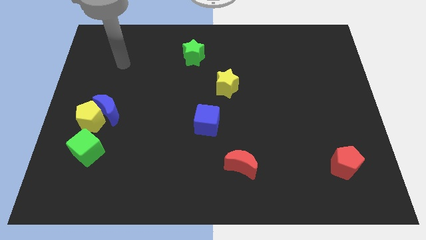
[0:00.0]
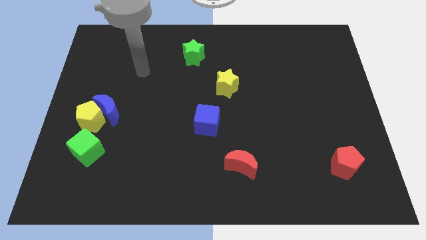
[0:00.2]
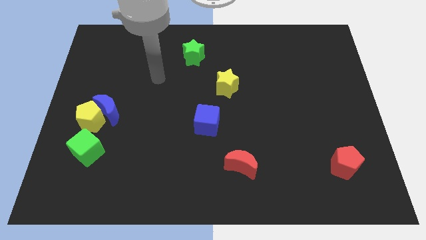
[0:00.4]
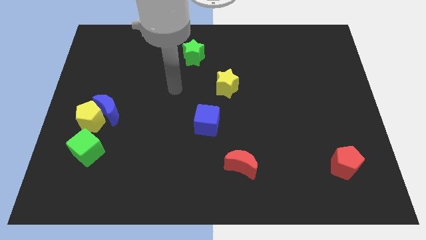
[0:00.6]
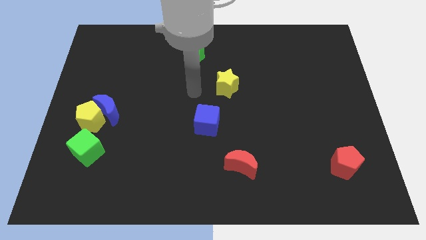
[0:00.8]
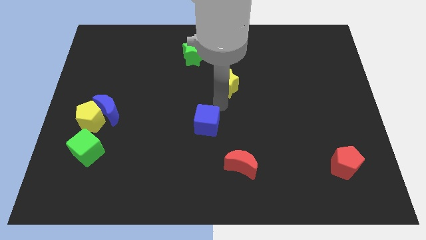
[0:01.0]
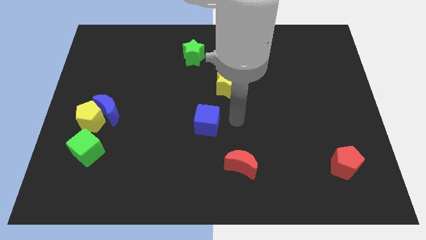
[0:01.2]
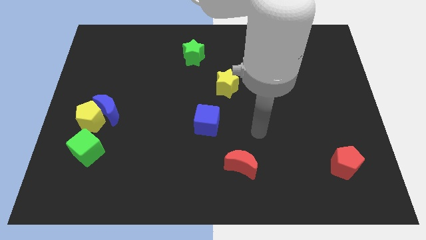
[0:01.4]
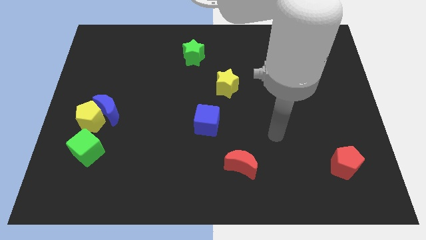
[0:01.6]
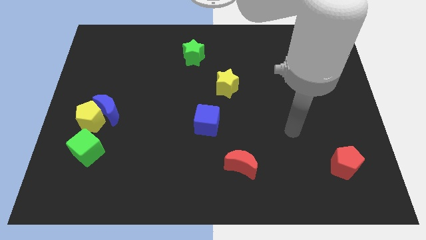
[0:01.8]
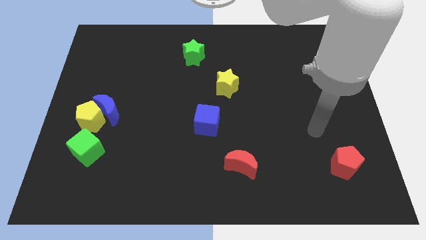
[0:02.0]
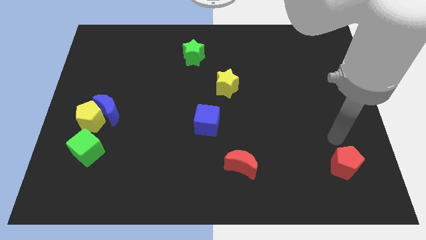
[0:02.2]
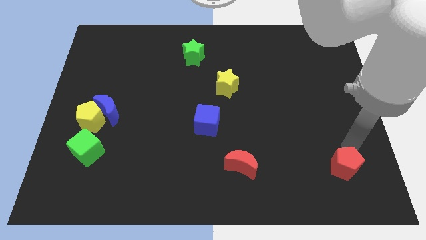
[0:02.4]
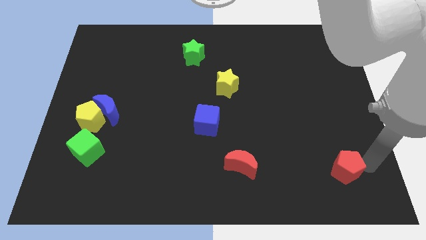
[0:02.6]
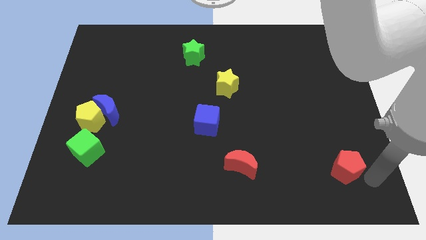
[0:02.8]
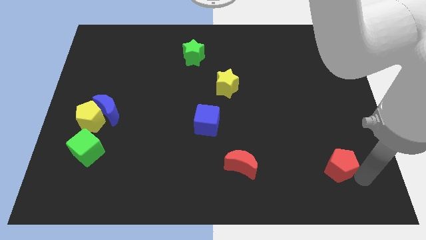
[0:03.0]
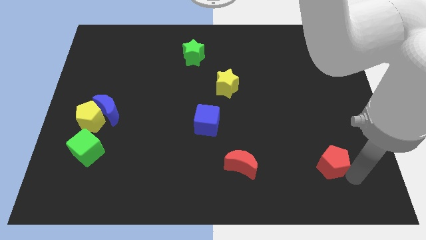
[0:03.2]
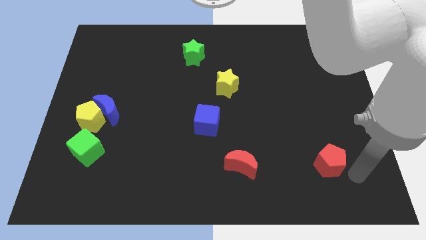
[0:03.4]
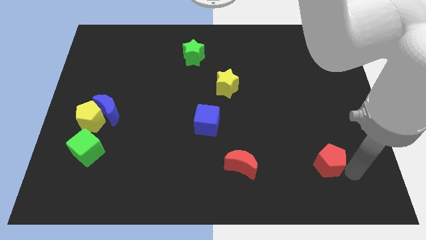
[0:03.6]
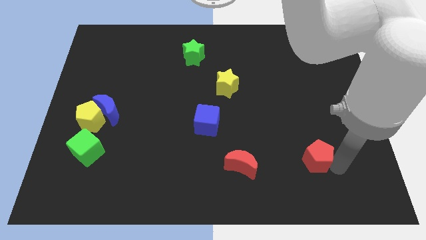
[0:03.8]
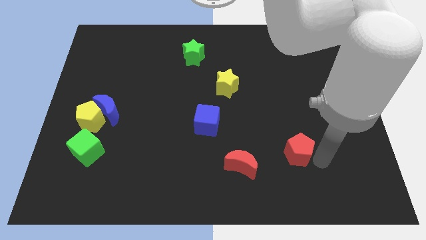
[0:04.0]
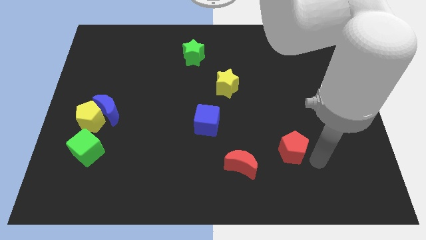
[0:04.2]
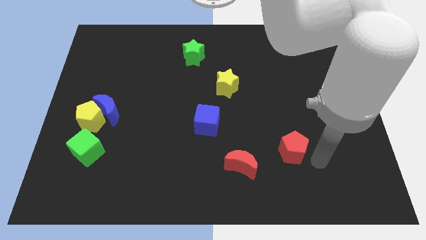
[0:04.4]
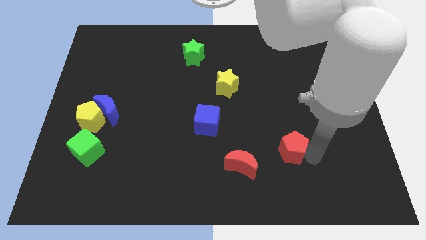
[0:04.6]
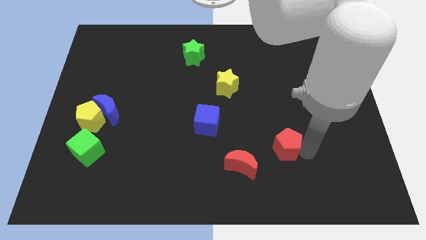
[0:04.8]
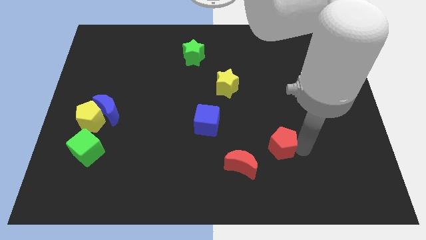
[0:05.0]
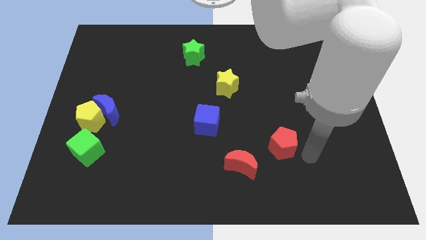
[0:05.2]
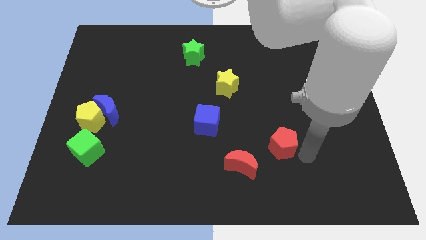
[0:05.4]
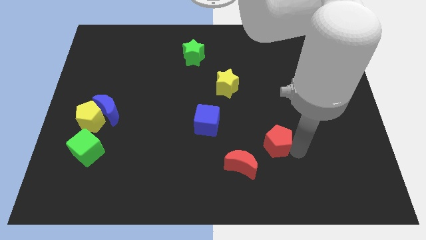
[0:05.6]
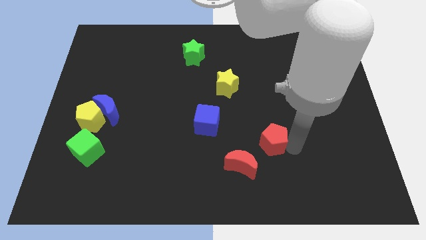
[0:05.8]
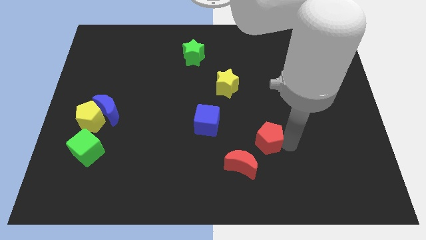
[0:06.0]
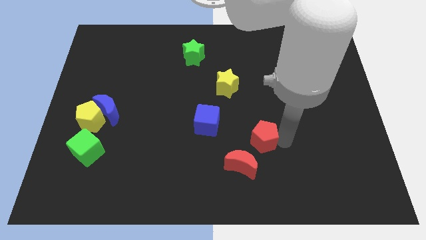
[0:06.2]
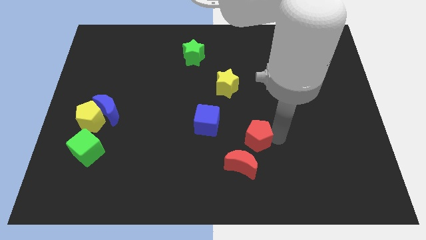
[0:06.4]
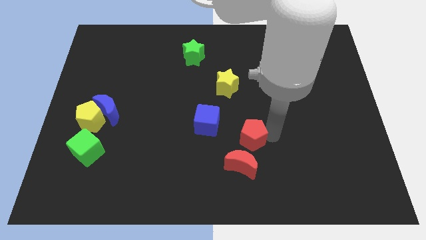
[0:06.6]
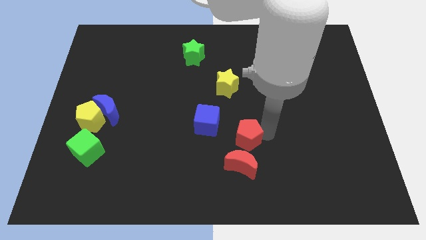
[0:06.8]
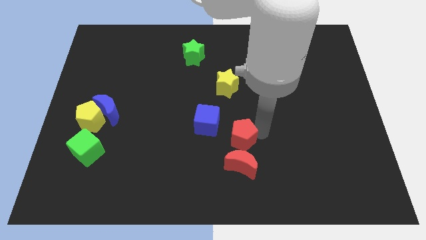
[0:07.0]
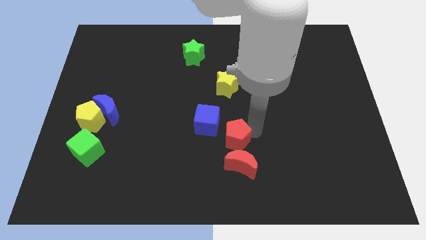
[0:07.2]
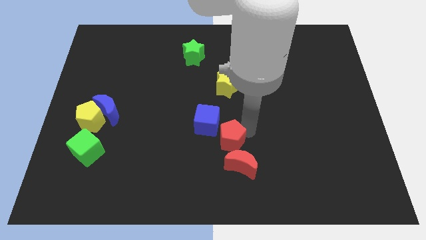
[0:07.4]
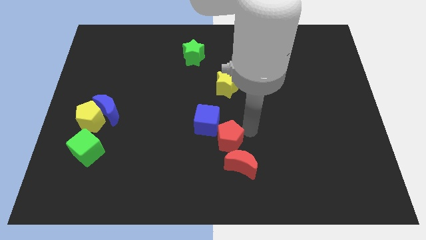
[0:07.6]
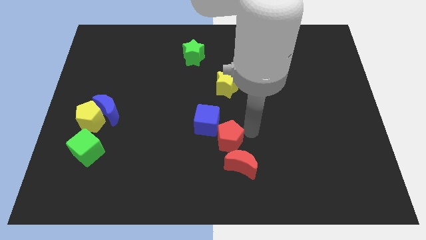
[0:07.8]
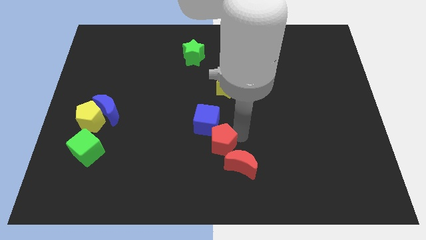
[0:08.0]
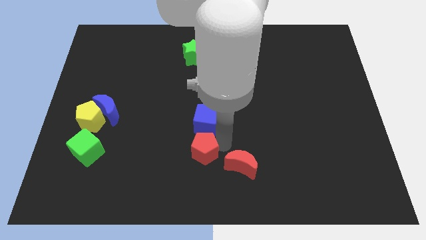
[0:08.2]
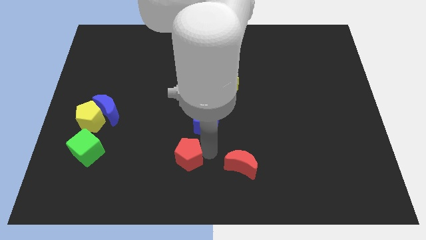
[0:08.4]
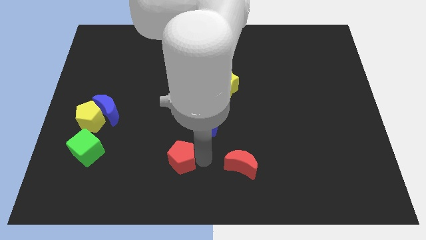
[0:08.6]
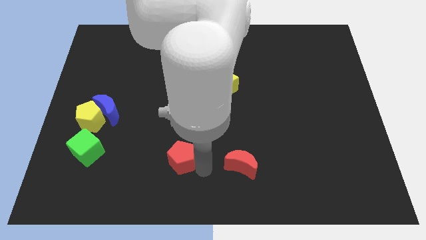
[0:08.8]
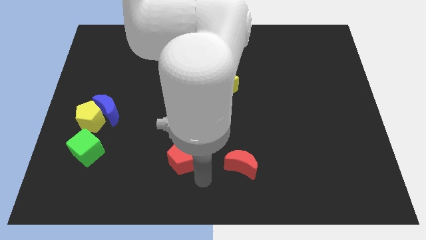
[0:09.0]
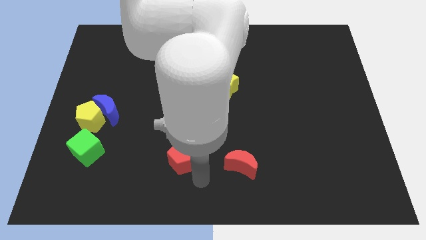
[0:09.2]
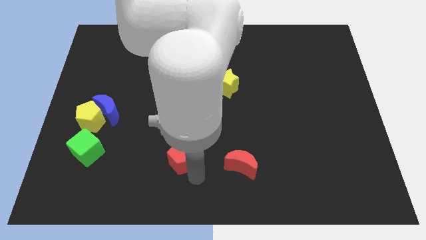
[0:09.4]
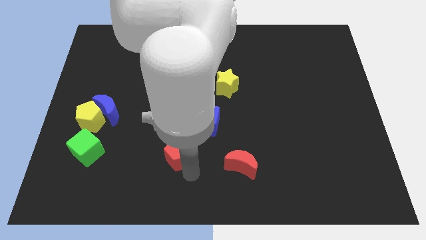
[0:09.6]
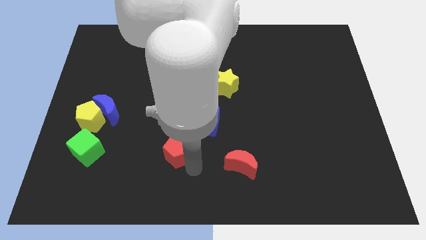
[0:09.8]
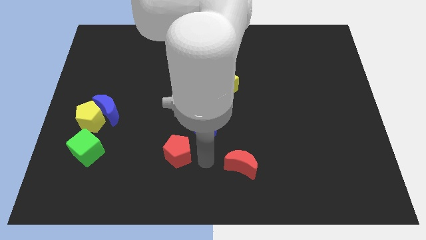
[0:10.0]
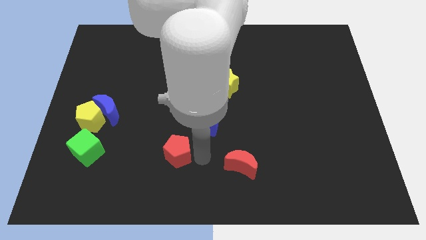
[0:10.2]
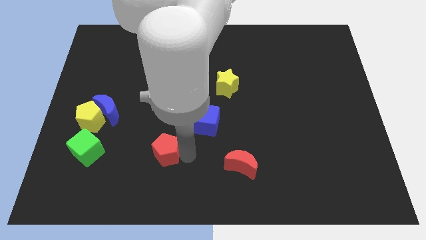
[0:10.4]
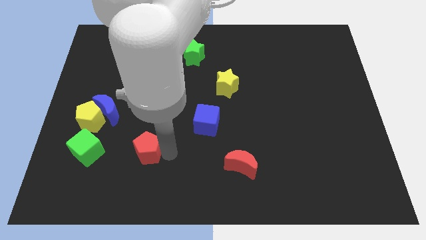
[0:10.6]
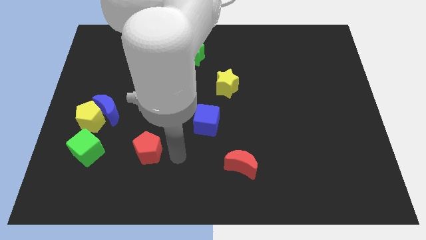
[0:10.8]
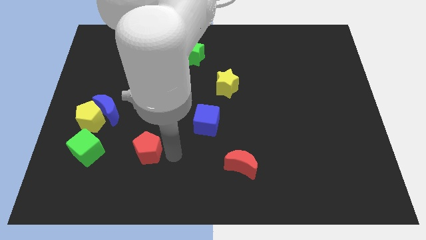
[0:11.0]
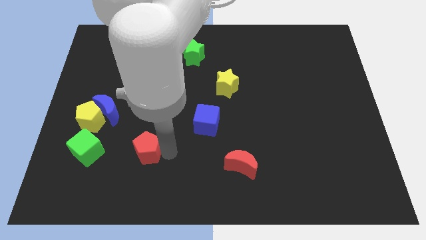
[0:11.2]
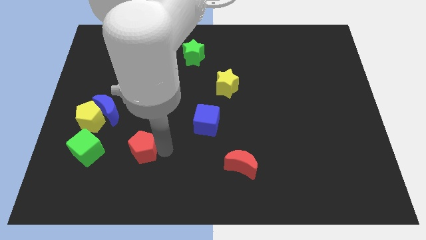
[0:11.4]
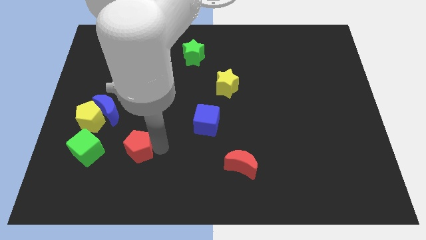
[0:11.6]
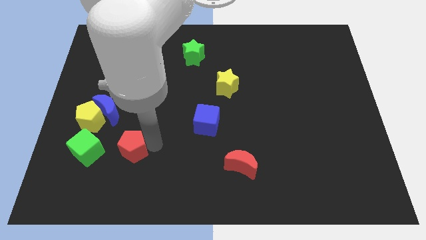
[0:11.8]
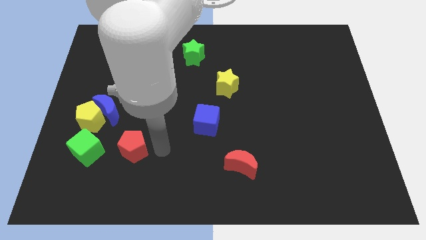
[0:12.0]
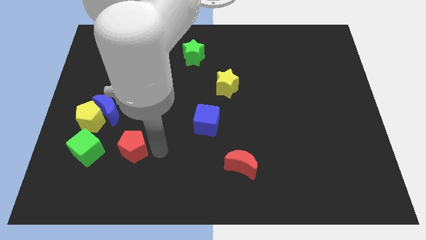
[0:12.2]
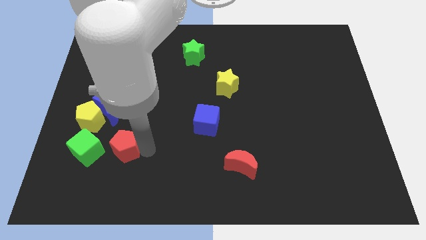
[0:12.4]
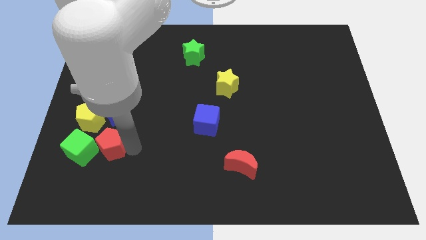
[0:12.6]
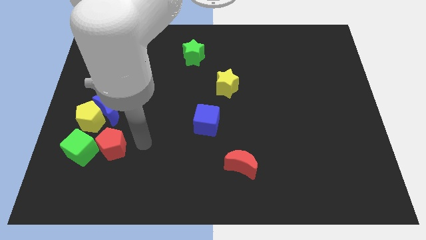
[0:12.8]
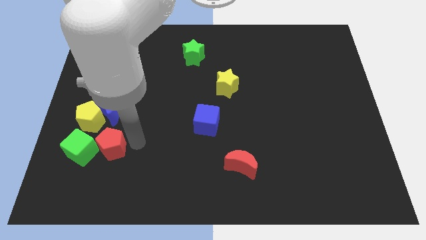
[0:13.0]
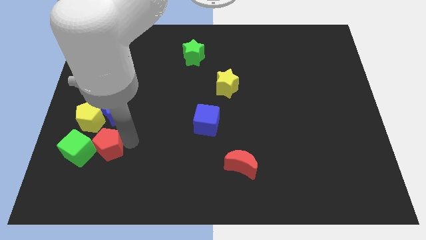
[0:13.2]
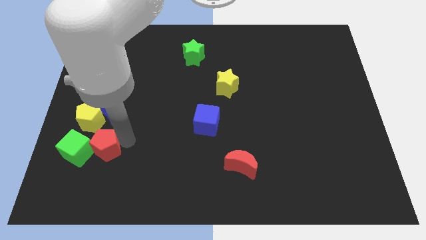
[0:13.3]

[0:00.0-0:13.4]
move the red pentagon close to the green cube

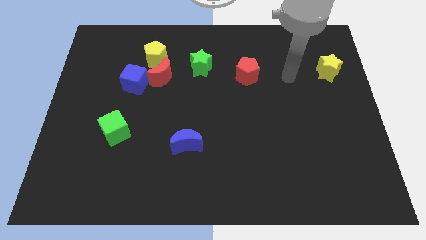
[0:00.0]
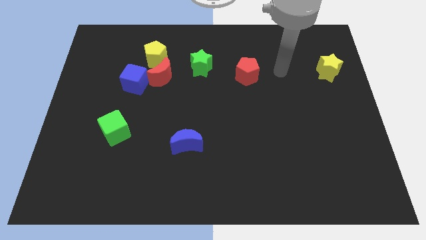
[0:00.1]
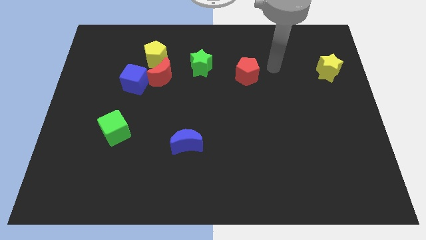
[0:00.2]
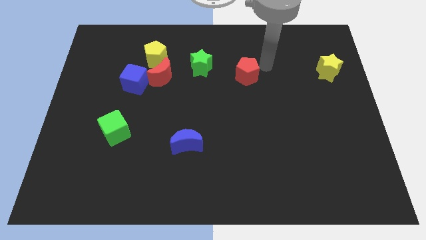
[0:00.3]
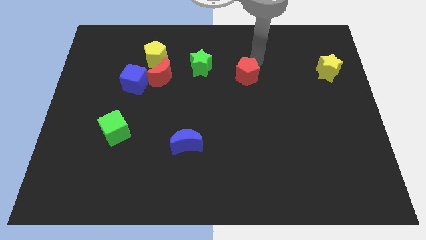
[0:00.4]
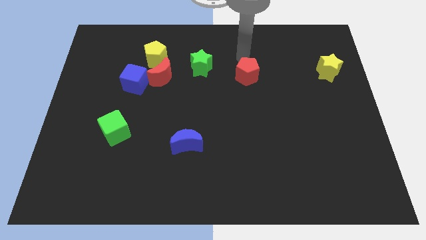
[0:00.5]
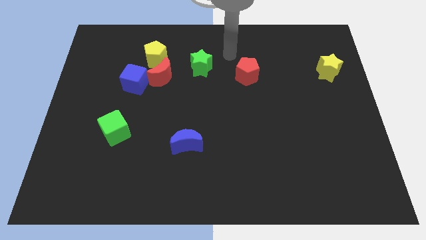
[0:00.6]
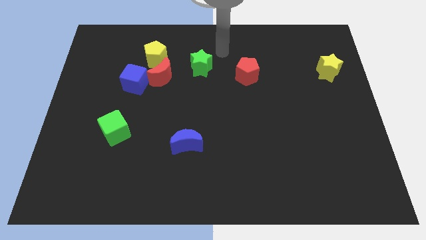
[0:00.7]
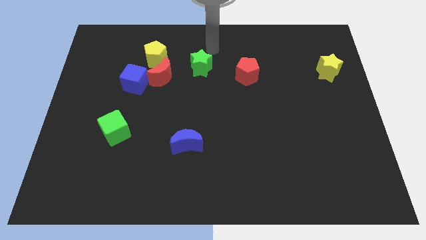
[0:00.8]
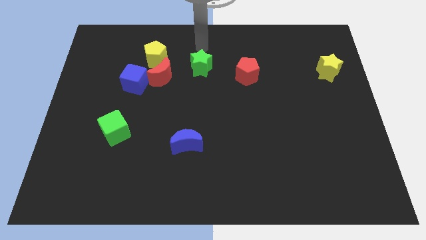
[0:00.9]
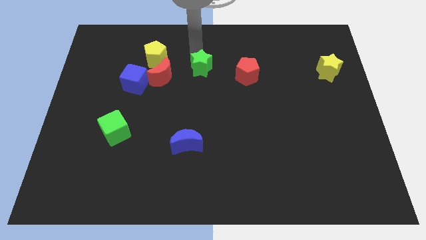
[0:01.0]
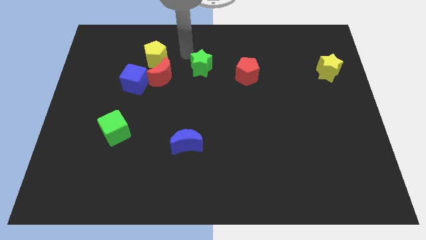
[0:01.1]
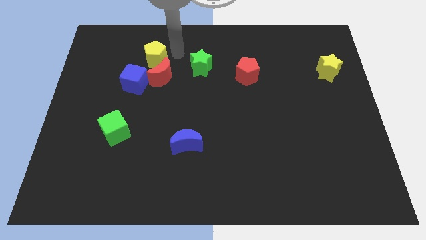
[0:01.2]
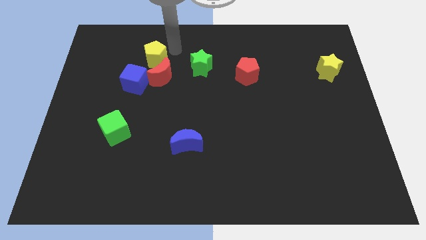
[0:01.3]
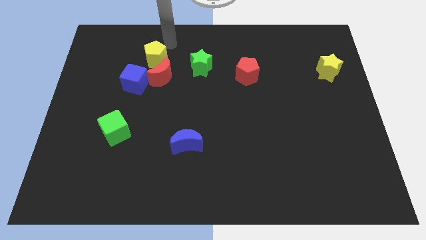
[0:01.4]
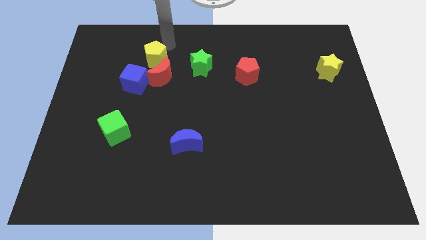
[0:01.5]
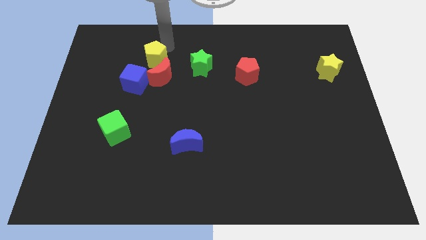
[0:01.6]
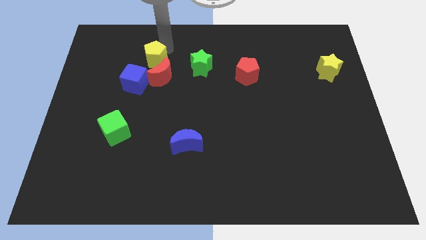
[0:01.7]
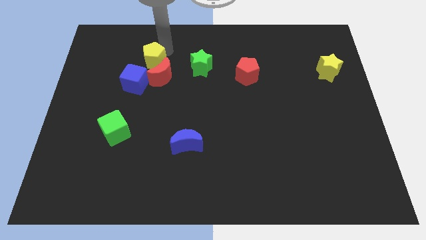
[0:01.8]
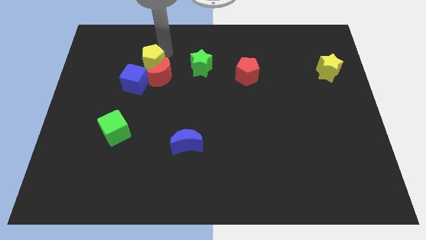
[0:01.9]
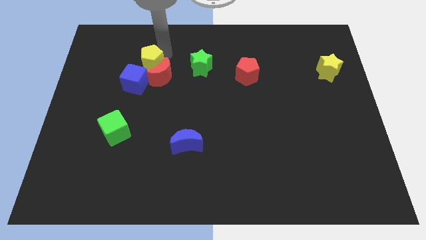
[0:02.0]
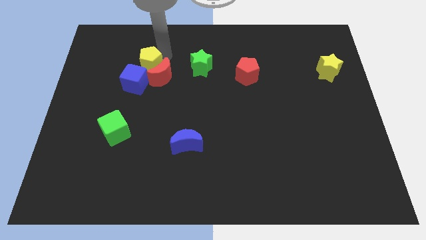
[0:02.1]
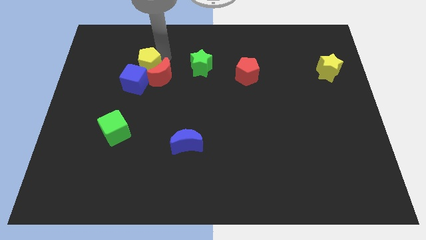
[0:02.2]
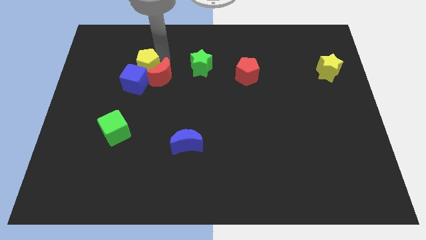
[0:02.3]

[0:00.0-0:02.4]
put the yellow pentagon close to the blue cube
